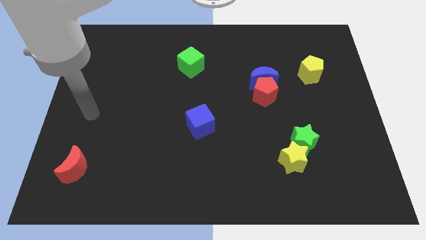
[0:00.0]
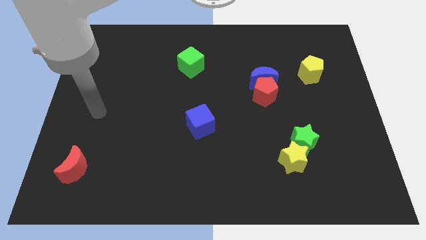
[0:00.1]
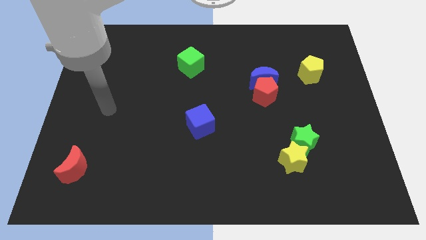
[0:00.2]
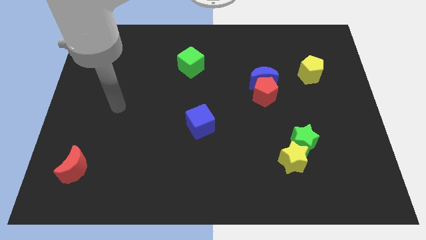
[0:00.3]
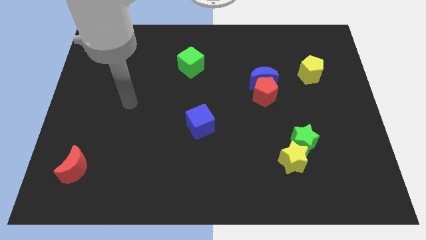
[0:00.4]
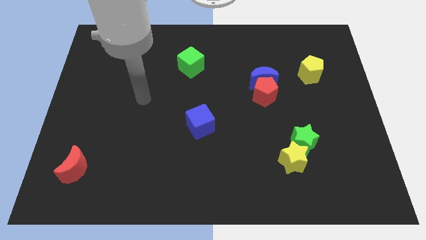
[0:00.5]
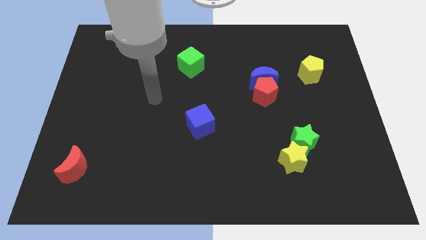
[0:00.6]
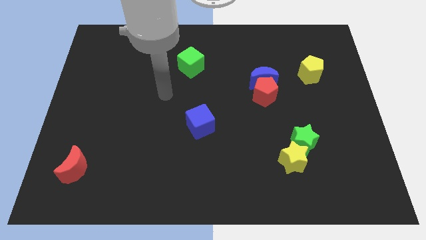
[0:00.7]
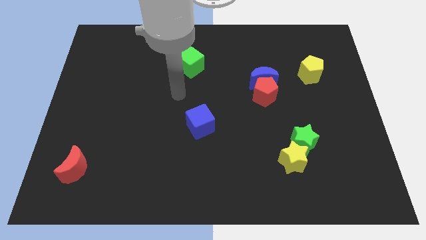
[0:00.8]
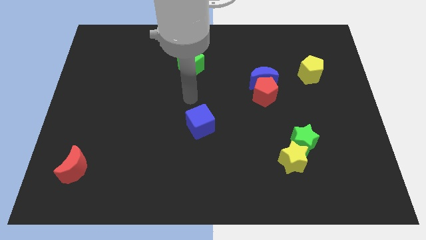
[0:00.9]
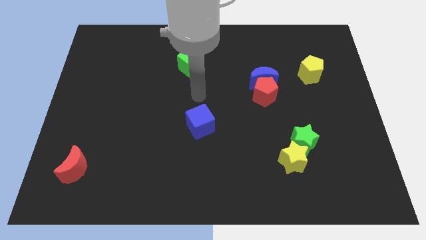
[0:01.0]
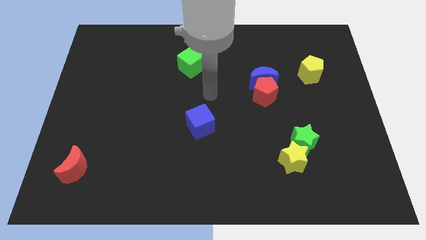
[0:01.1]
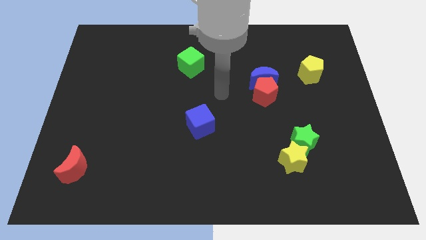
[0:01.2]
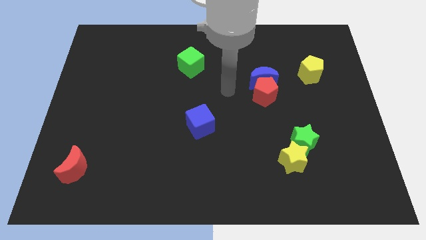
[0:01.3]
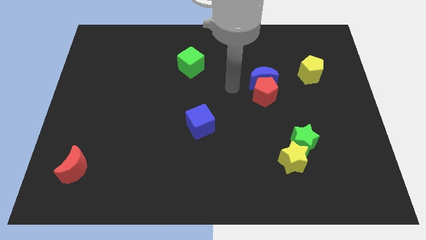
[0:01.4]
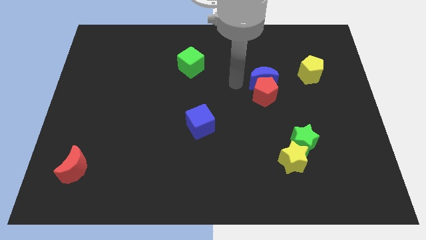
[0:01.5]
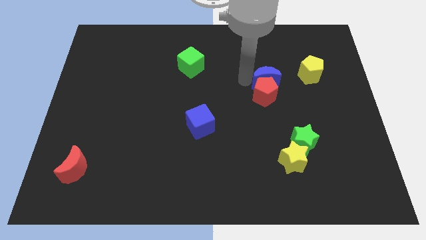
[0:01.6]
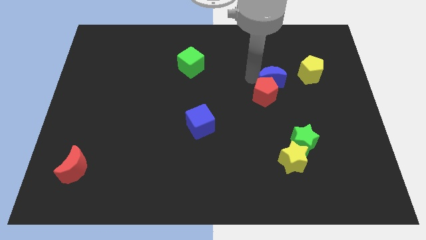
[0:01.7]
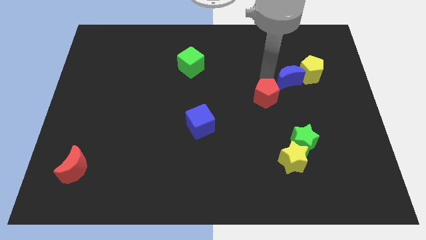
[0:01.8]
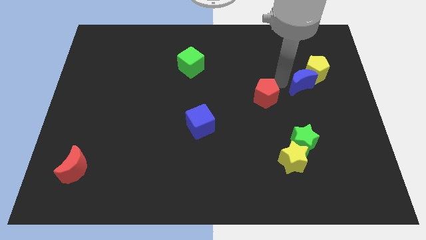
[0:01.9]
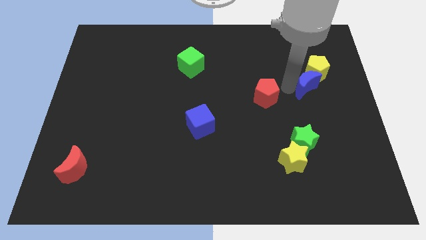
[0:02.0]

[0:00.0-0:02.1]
move the red pentagon away from the blue moon

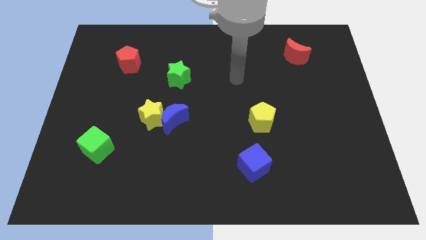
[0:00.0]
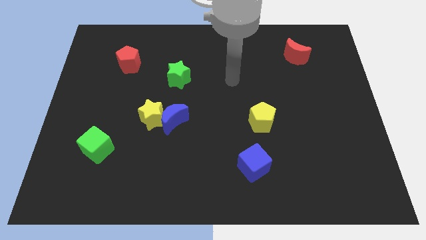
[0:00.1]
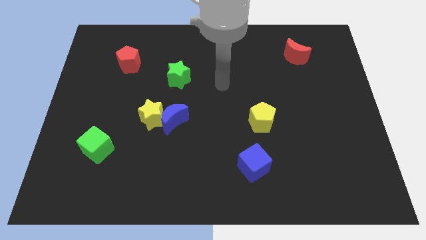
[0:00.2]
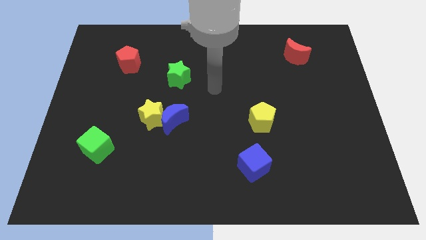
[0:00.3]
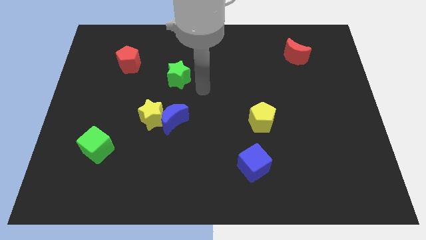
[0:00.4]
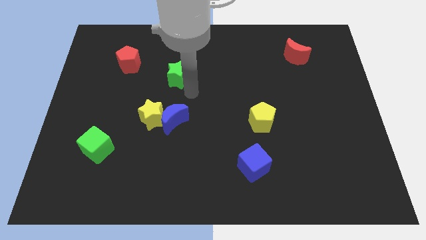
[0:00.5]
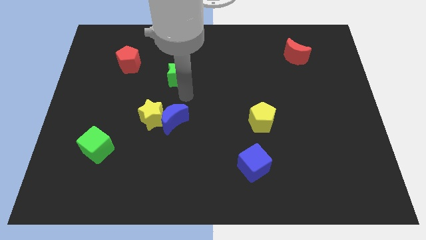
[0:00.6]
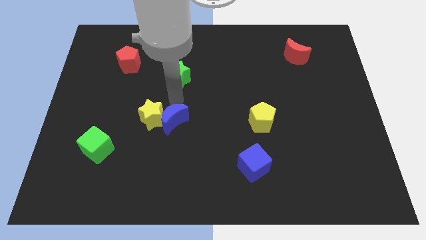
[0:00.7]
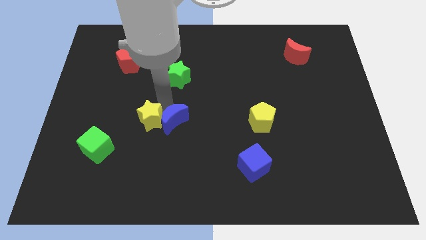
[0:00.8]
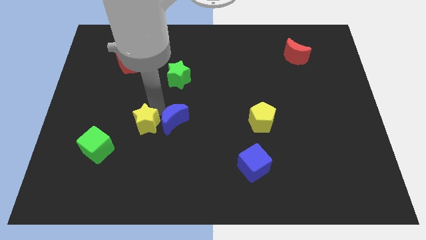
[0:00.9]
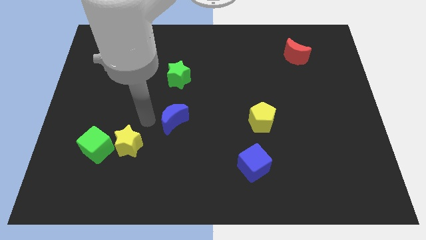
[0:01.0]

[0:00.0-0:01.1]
separate the blue moon from the yellow star

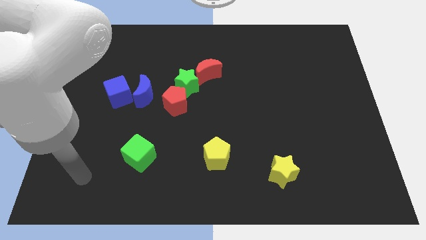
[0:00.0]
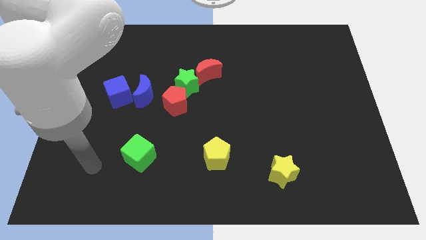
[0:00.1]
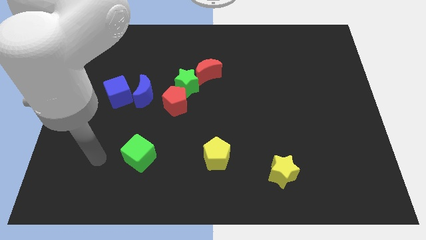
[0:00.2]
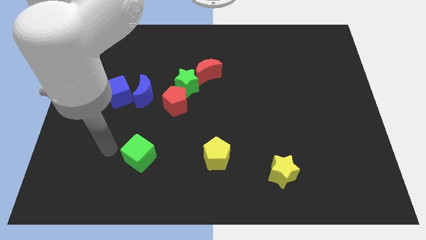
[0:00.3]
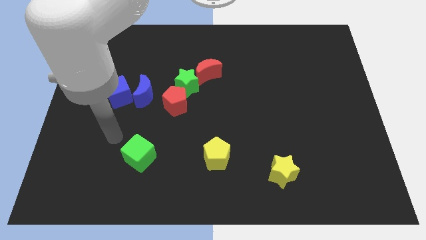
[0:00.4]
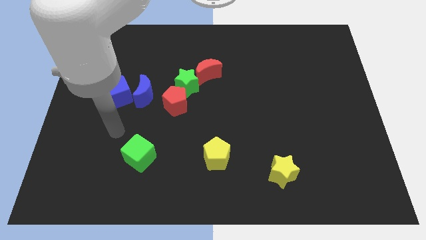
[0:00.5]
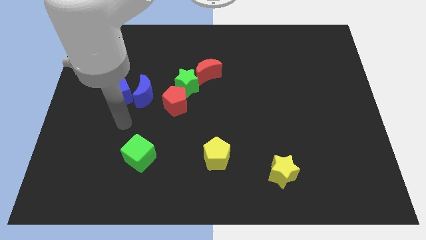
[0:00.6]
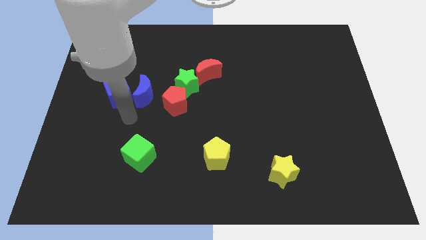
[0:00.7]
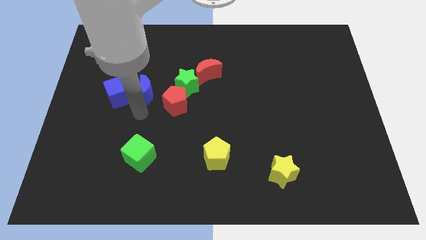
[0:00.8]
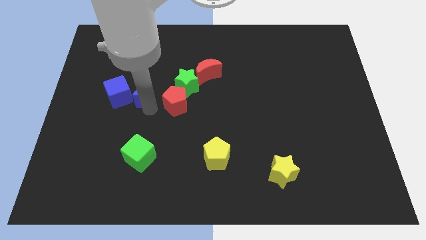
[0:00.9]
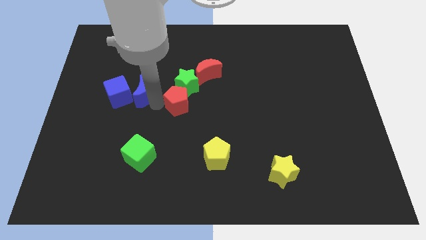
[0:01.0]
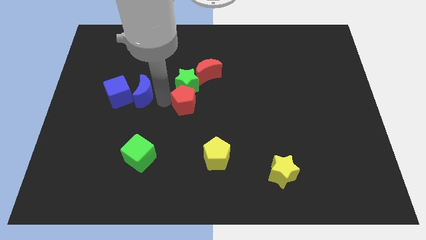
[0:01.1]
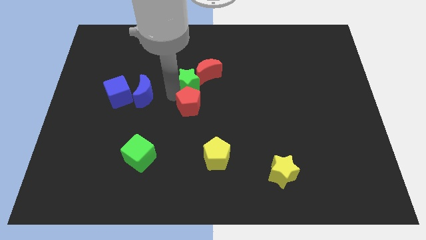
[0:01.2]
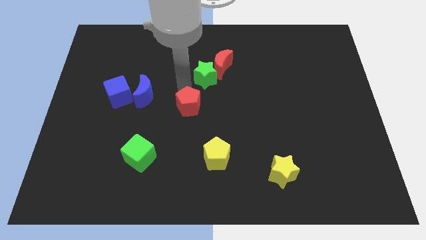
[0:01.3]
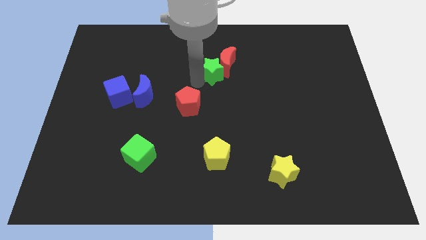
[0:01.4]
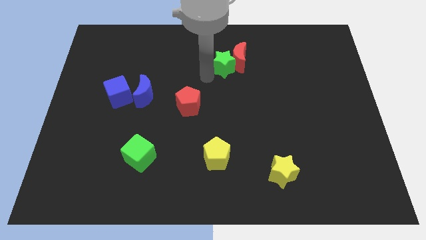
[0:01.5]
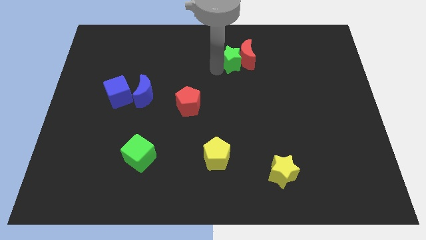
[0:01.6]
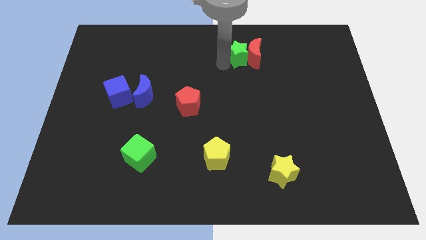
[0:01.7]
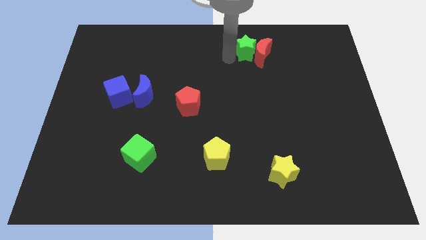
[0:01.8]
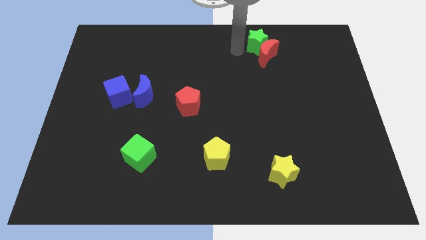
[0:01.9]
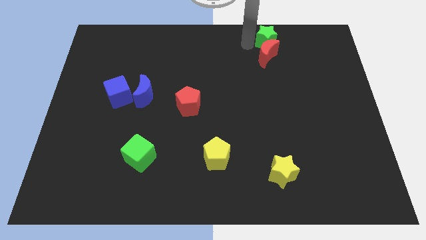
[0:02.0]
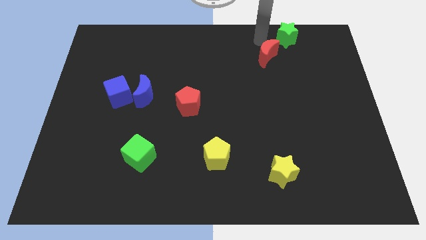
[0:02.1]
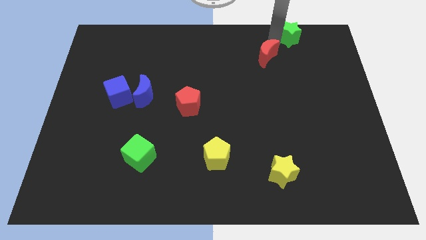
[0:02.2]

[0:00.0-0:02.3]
separate the red moon from the green star

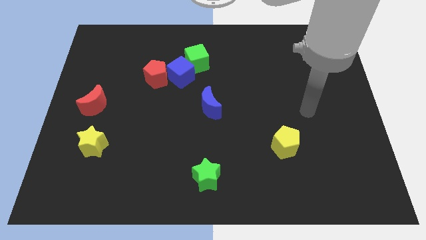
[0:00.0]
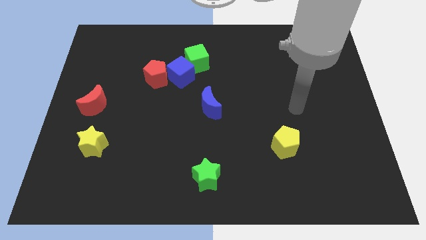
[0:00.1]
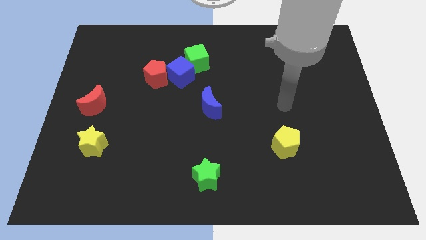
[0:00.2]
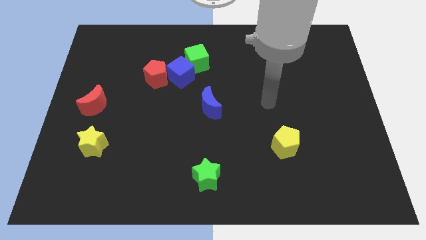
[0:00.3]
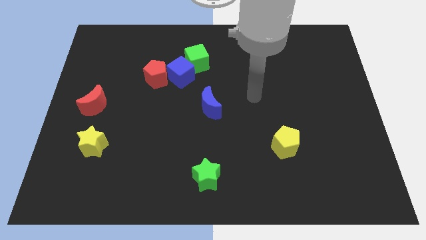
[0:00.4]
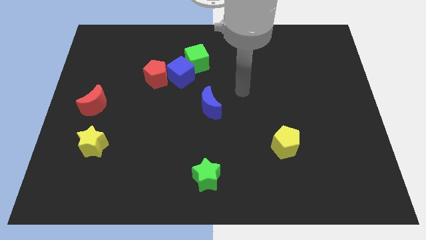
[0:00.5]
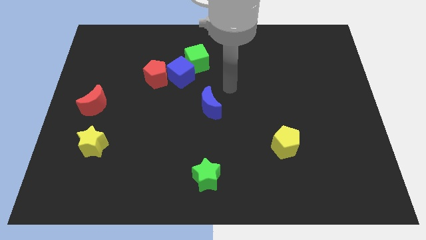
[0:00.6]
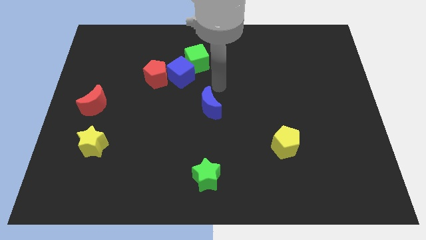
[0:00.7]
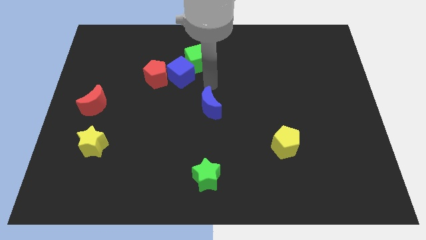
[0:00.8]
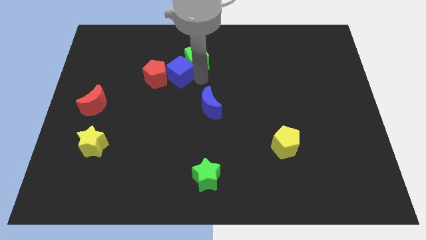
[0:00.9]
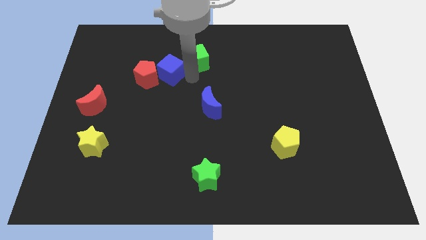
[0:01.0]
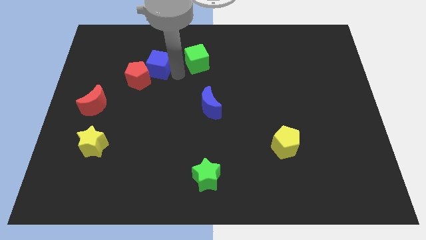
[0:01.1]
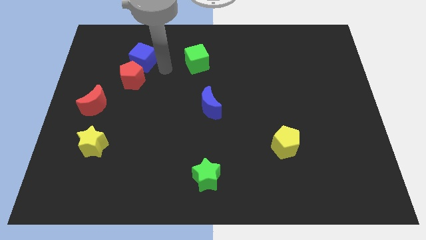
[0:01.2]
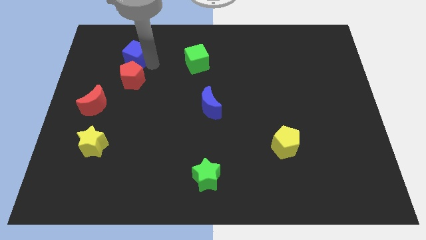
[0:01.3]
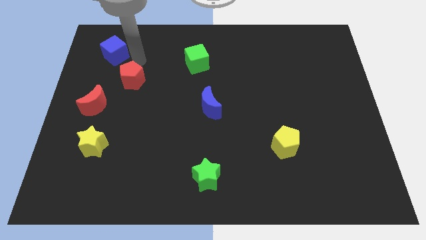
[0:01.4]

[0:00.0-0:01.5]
pull the red pentagon apart from the blue cube

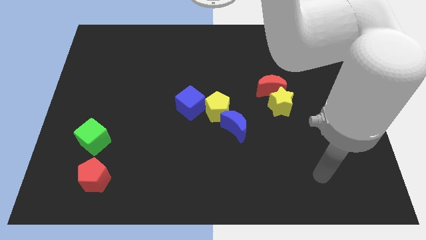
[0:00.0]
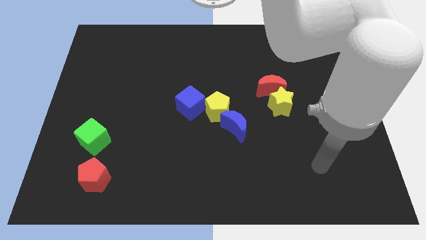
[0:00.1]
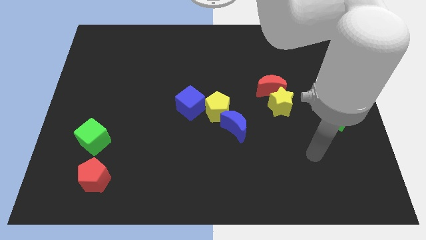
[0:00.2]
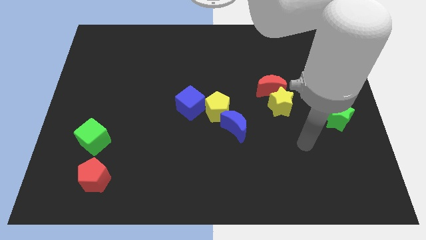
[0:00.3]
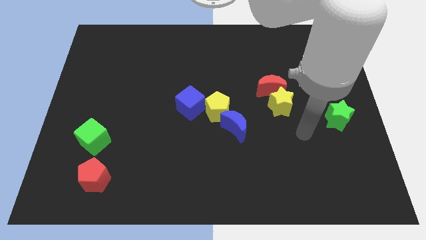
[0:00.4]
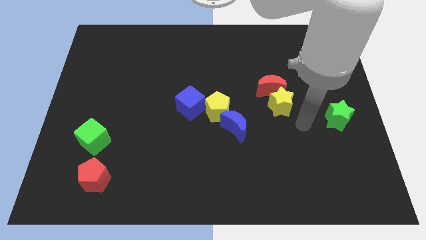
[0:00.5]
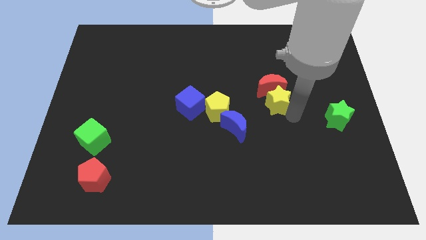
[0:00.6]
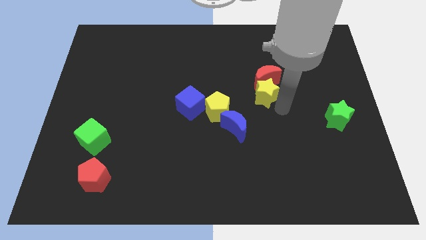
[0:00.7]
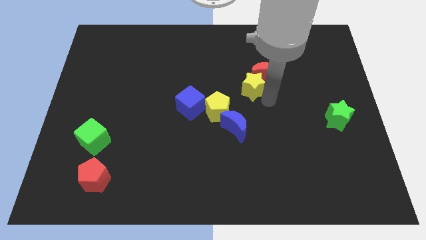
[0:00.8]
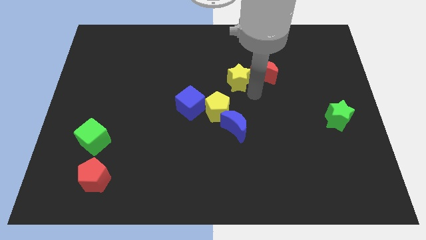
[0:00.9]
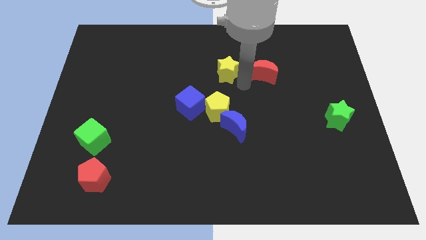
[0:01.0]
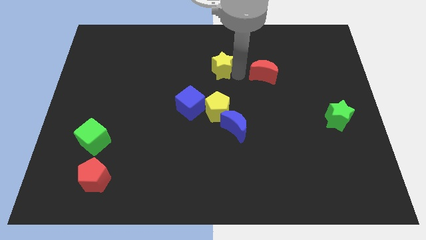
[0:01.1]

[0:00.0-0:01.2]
separate the red moon from the yellow star

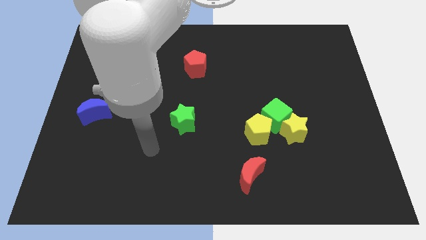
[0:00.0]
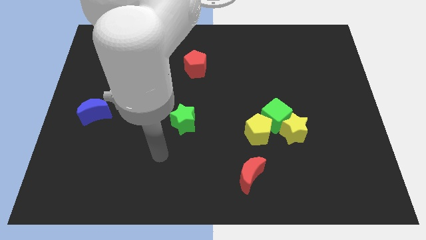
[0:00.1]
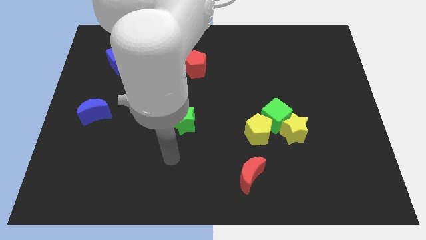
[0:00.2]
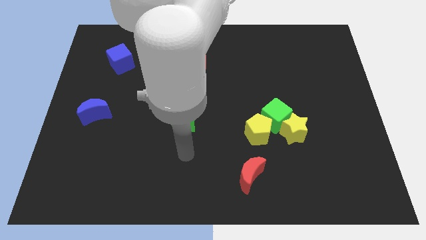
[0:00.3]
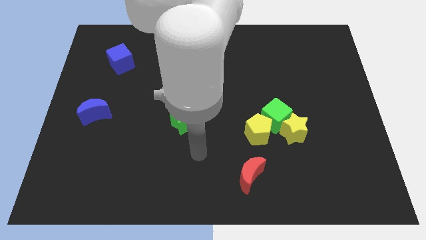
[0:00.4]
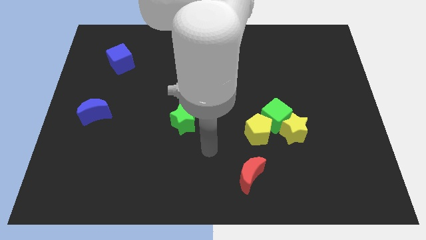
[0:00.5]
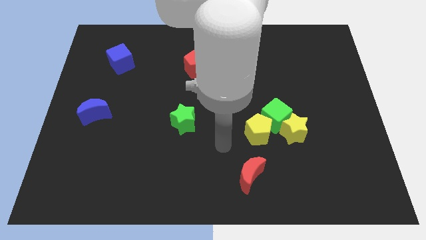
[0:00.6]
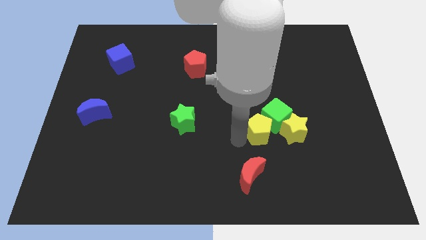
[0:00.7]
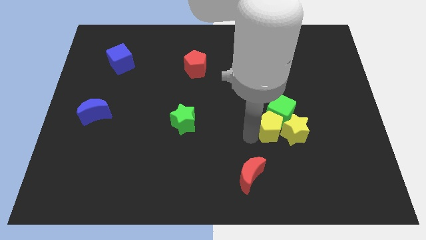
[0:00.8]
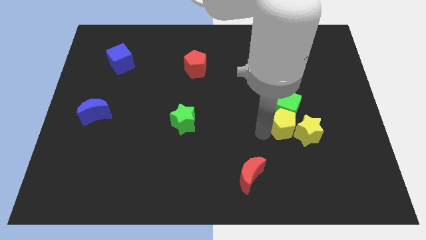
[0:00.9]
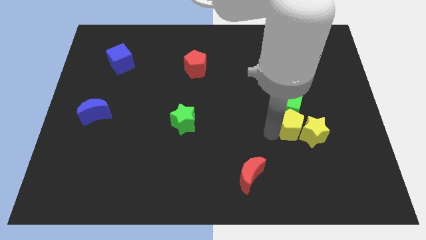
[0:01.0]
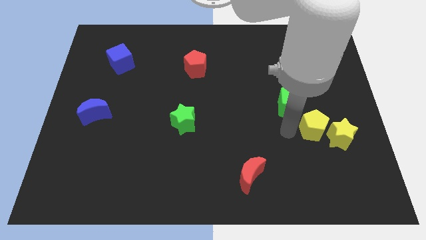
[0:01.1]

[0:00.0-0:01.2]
pull the green cube apart from the yellow star and yellow pentagon
